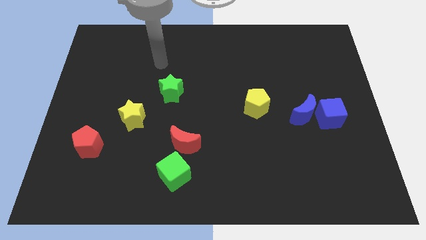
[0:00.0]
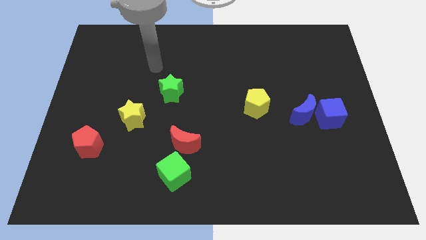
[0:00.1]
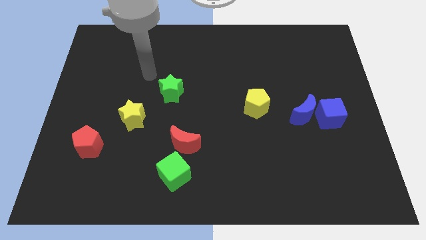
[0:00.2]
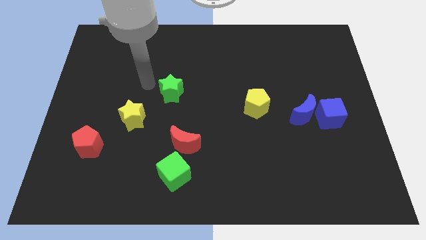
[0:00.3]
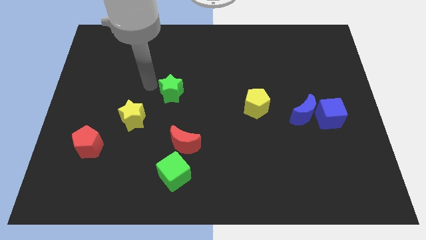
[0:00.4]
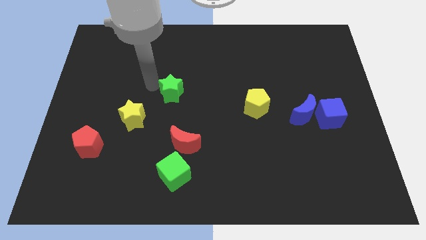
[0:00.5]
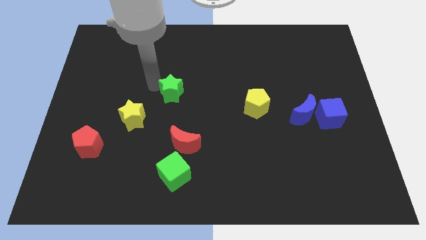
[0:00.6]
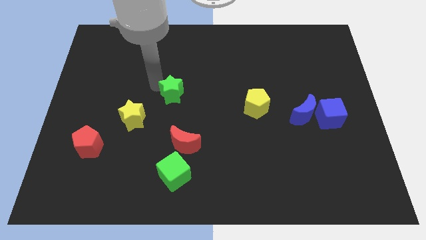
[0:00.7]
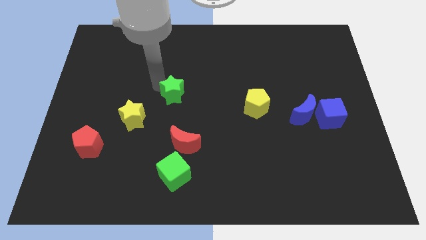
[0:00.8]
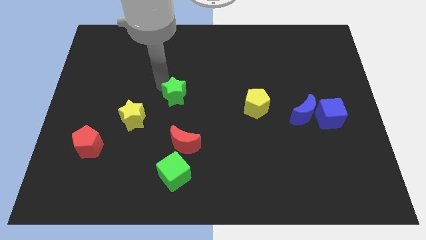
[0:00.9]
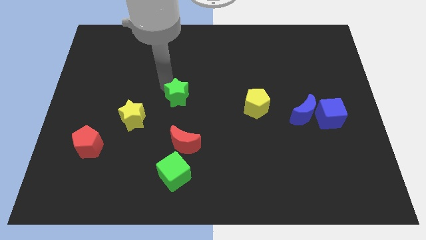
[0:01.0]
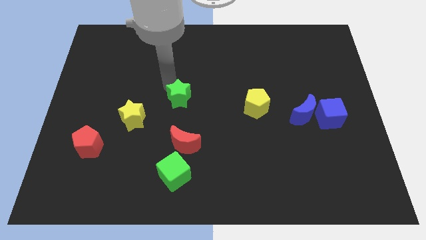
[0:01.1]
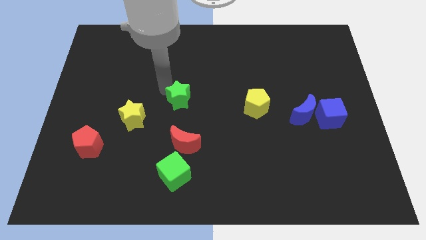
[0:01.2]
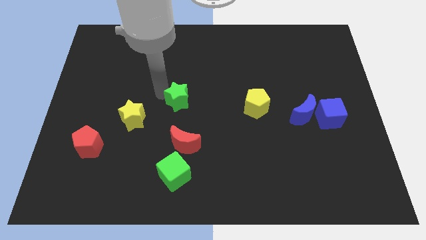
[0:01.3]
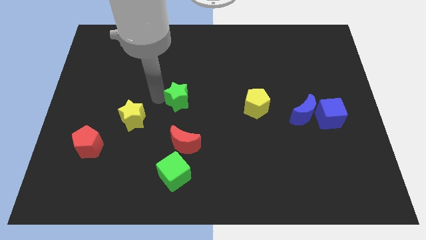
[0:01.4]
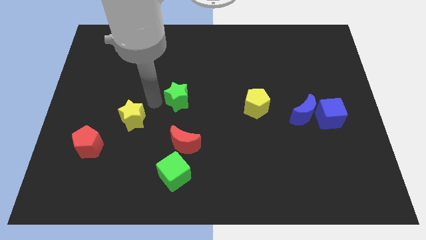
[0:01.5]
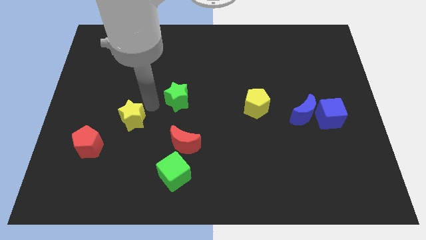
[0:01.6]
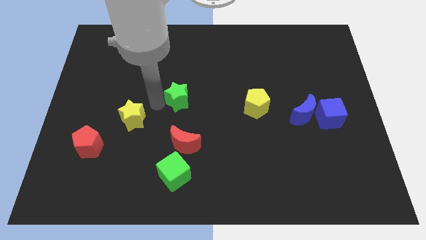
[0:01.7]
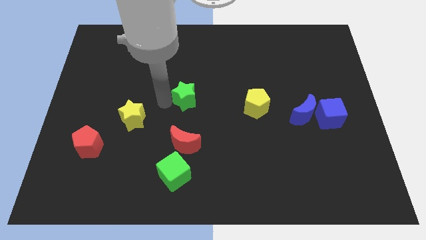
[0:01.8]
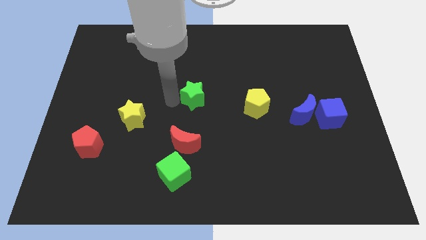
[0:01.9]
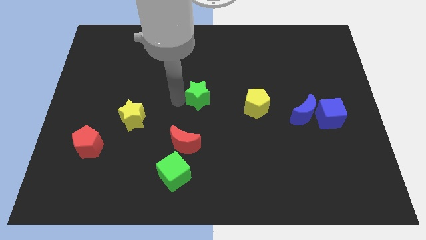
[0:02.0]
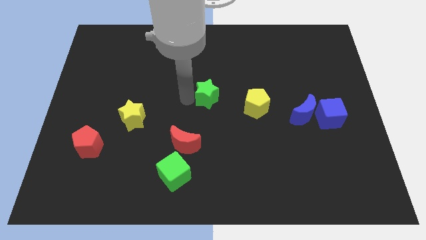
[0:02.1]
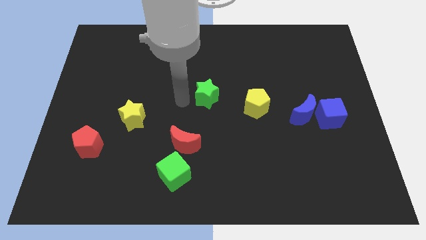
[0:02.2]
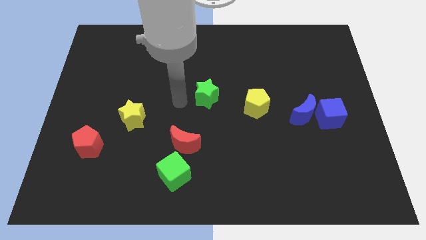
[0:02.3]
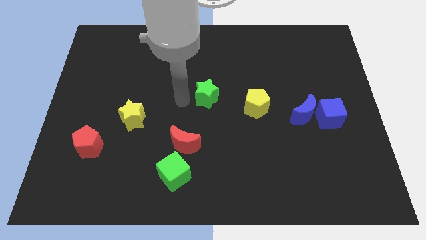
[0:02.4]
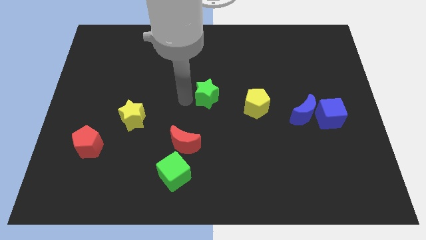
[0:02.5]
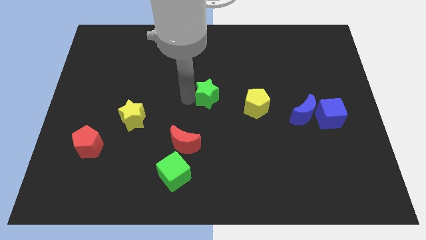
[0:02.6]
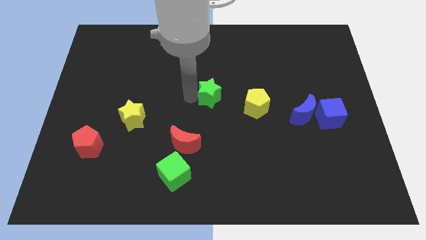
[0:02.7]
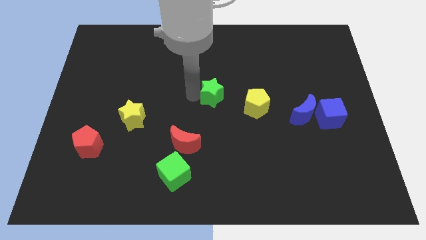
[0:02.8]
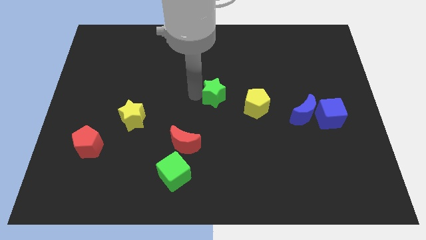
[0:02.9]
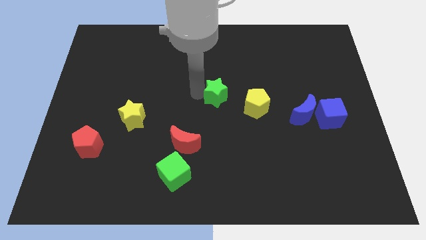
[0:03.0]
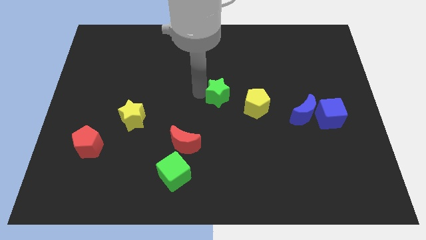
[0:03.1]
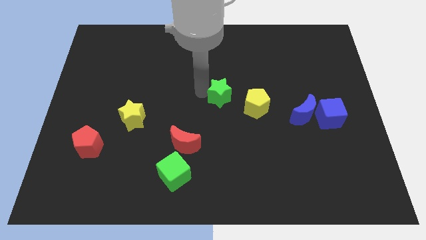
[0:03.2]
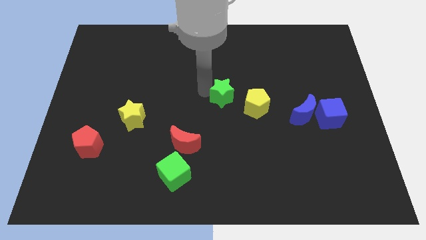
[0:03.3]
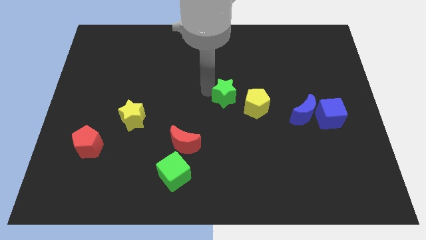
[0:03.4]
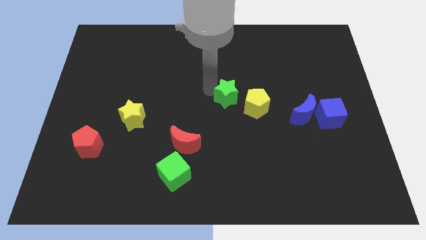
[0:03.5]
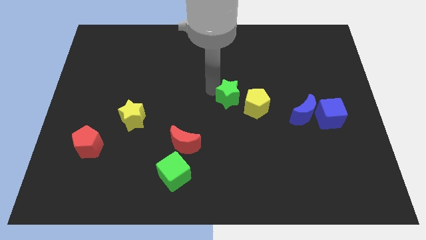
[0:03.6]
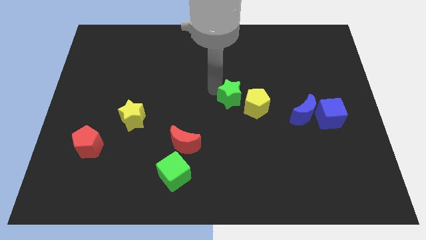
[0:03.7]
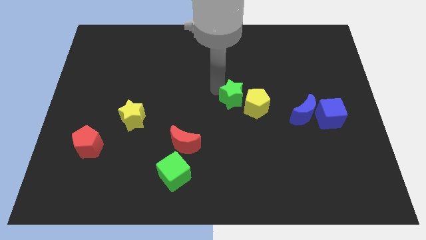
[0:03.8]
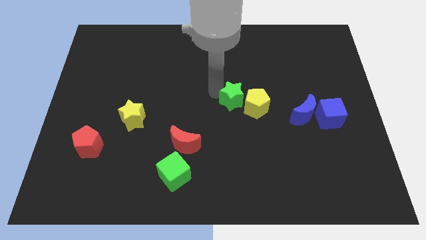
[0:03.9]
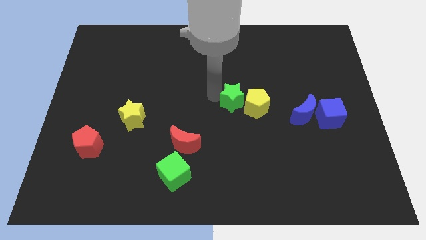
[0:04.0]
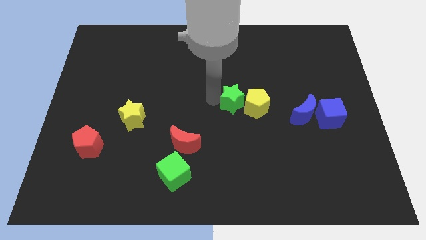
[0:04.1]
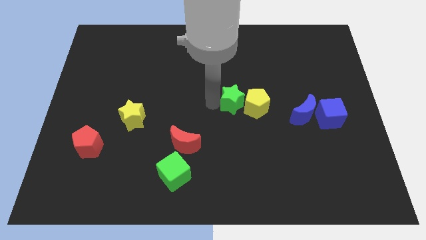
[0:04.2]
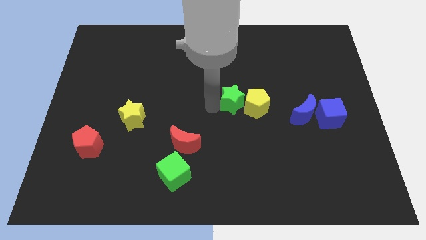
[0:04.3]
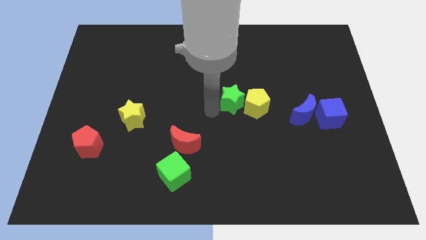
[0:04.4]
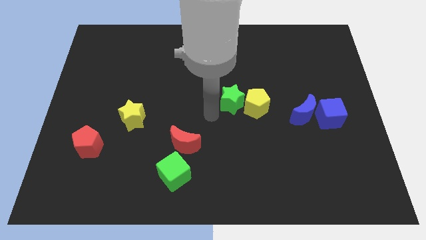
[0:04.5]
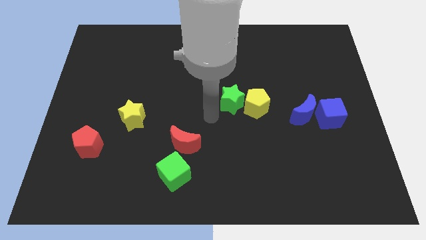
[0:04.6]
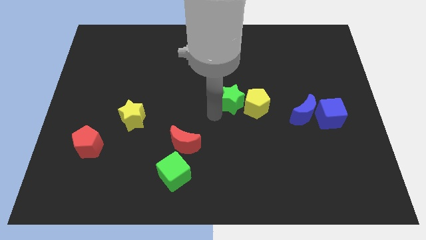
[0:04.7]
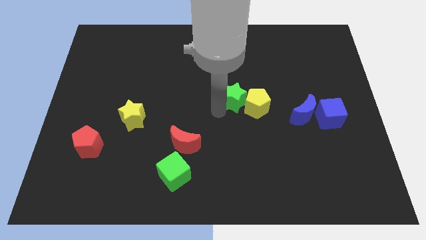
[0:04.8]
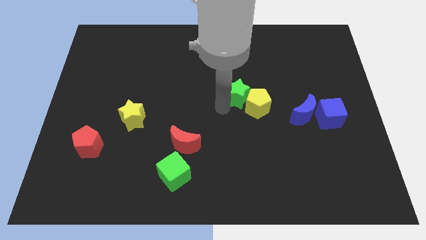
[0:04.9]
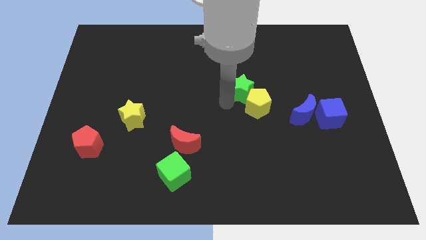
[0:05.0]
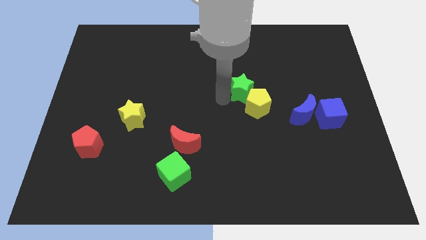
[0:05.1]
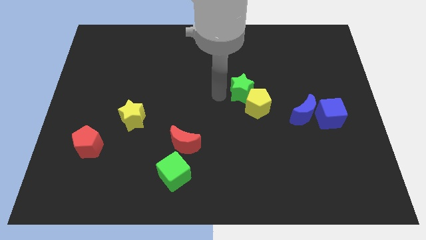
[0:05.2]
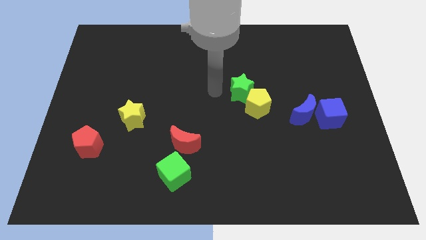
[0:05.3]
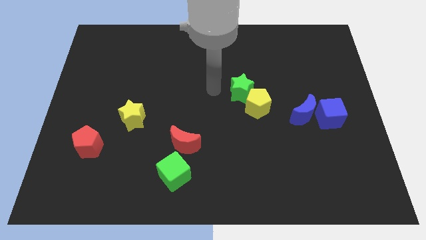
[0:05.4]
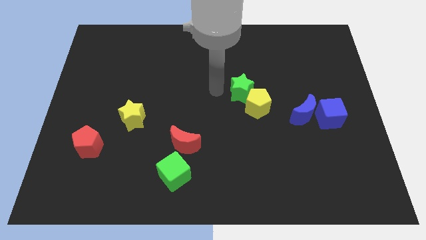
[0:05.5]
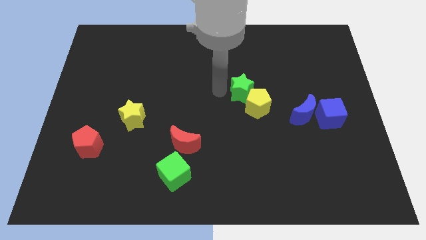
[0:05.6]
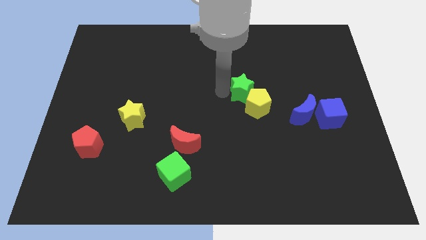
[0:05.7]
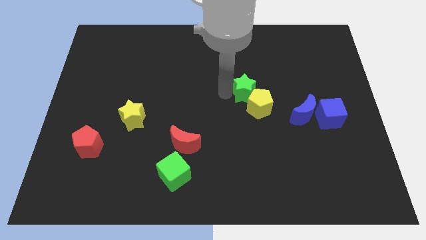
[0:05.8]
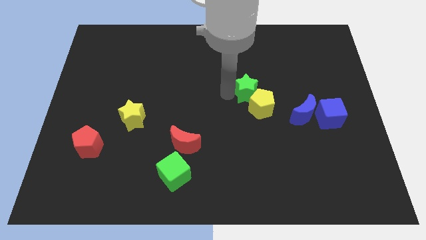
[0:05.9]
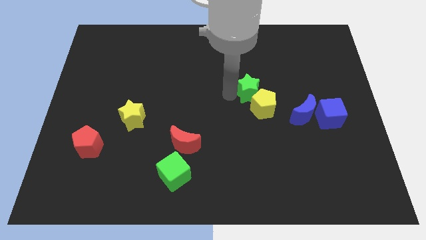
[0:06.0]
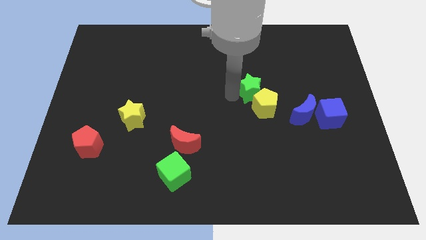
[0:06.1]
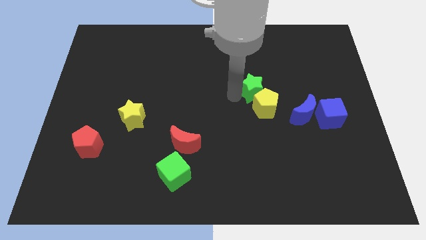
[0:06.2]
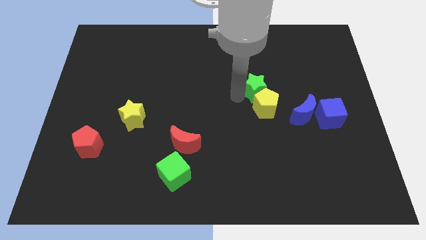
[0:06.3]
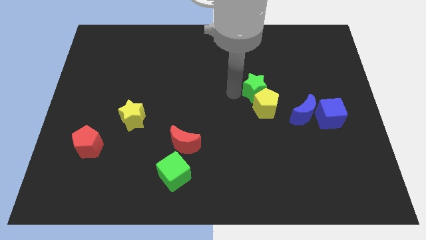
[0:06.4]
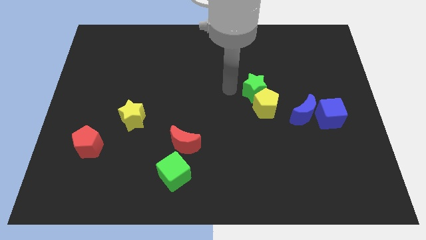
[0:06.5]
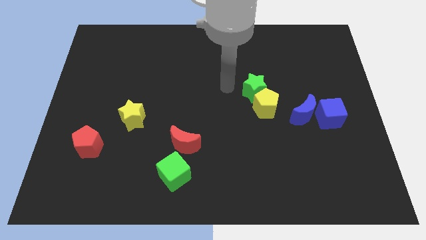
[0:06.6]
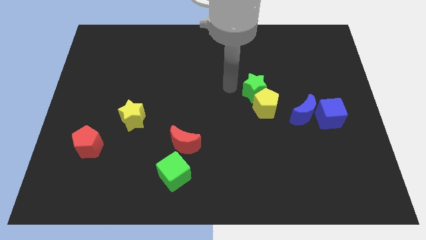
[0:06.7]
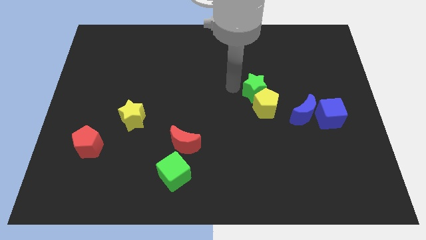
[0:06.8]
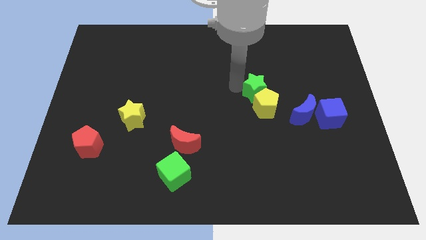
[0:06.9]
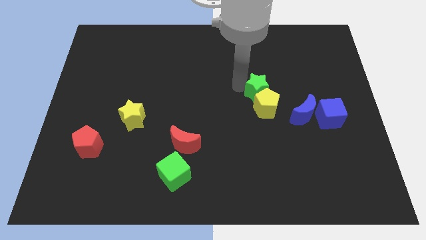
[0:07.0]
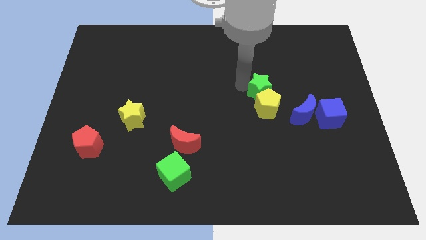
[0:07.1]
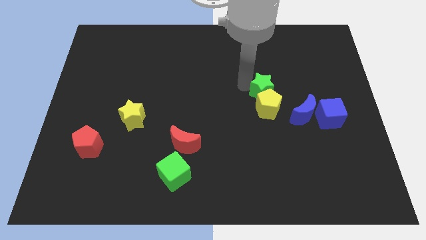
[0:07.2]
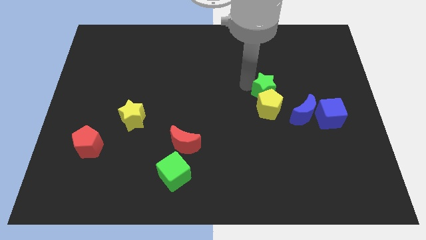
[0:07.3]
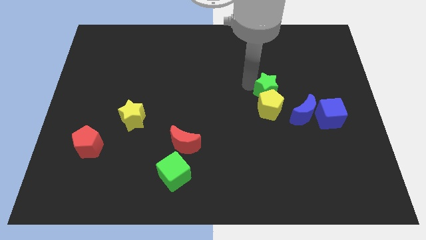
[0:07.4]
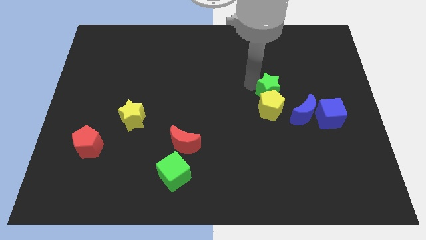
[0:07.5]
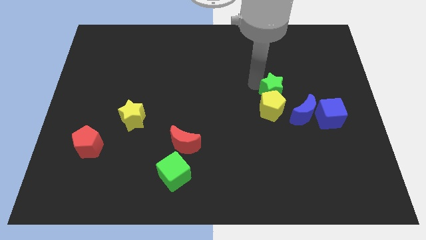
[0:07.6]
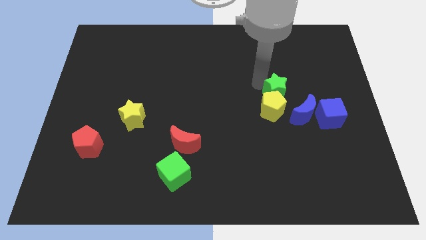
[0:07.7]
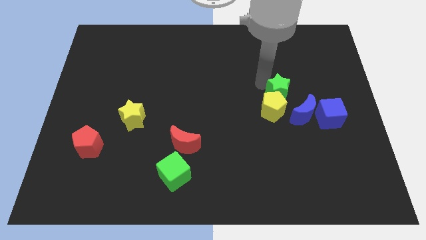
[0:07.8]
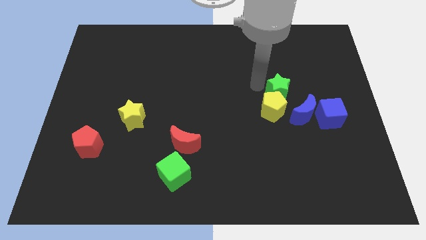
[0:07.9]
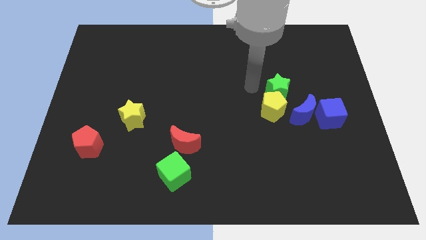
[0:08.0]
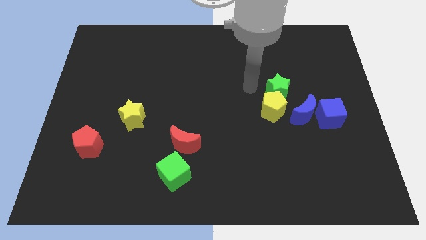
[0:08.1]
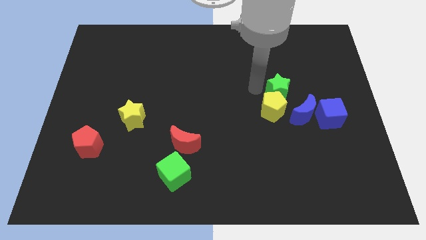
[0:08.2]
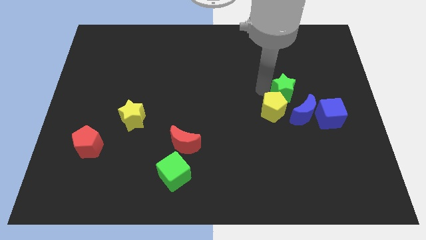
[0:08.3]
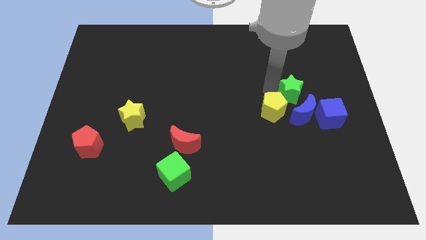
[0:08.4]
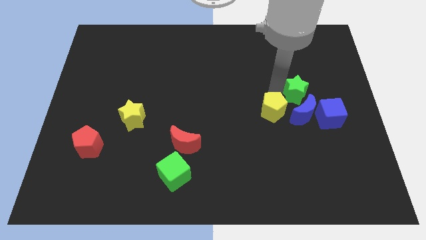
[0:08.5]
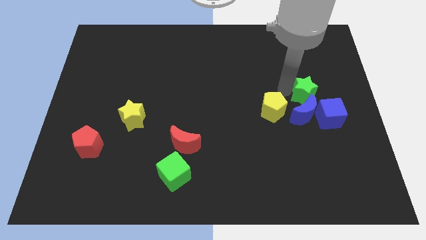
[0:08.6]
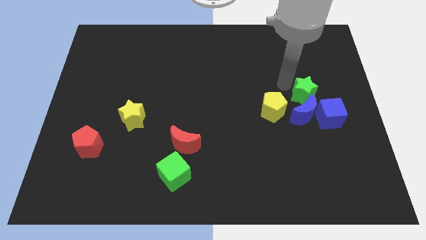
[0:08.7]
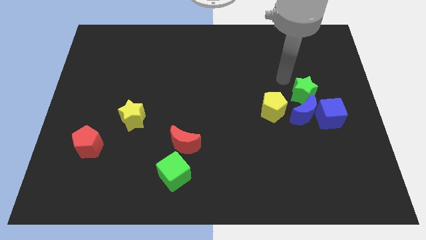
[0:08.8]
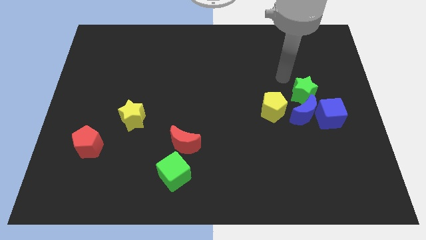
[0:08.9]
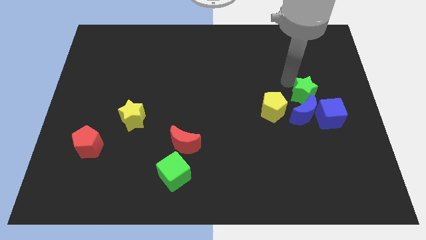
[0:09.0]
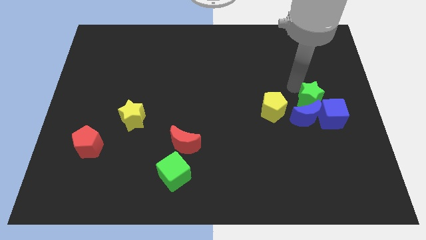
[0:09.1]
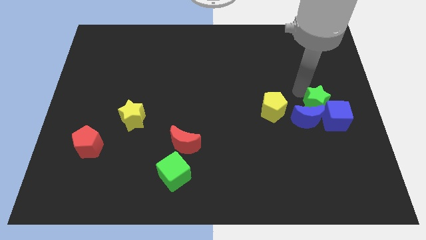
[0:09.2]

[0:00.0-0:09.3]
push the green star next to the blue cube
